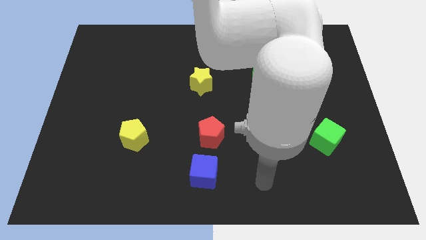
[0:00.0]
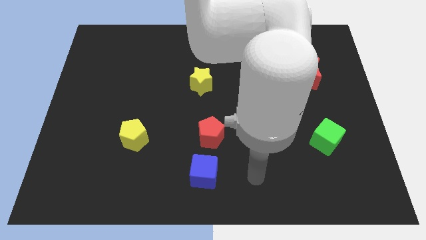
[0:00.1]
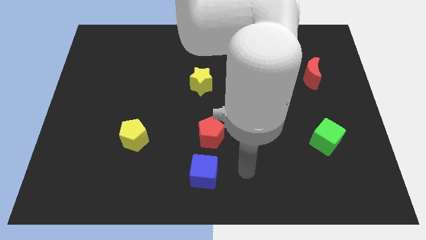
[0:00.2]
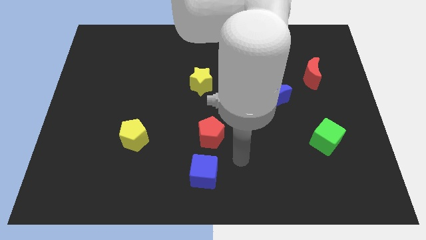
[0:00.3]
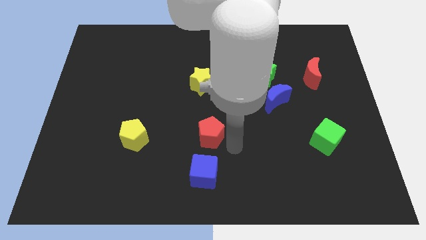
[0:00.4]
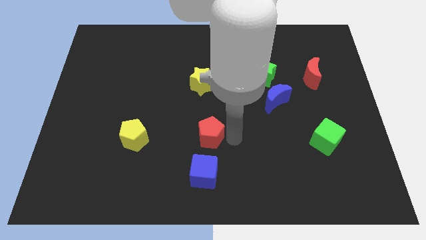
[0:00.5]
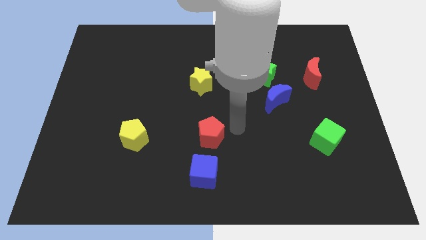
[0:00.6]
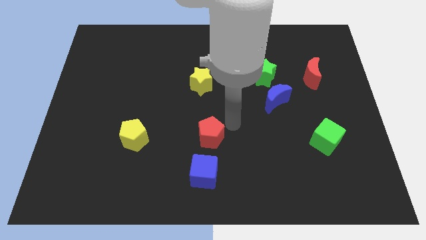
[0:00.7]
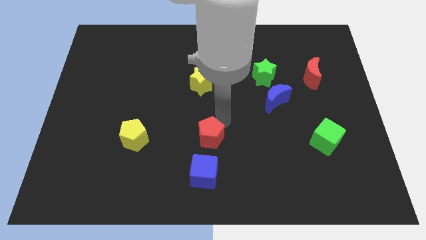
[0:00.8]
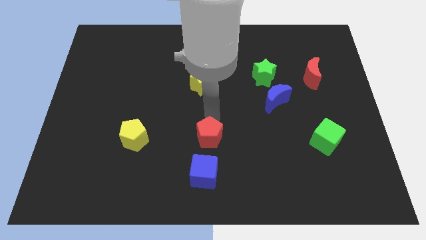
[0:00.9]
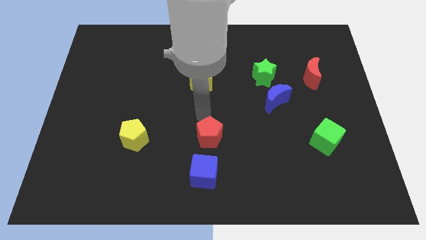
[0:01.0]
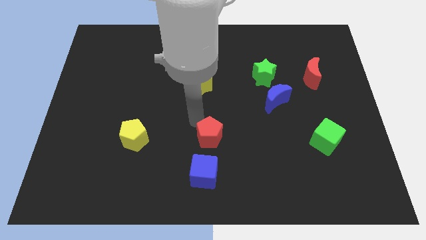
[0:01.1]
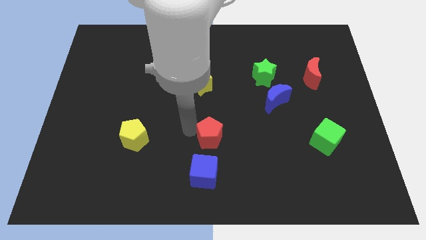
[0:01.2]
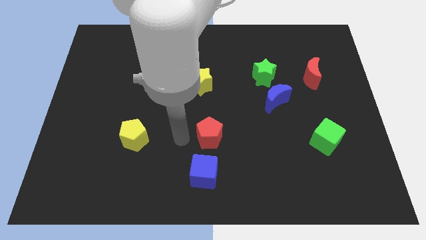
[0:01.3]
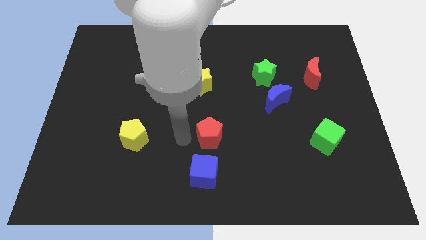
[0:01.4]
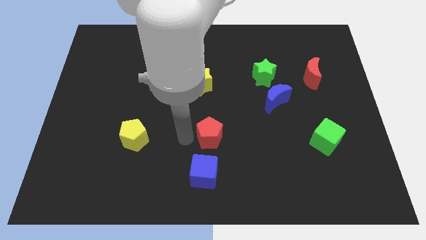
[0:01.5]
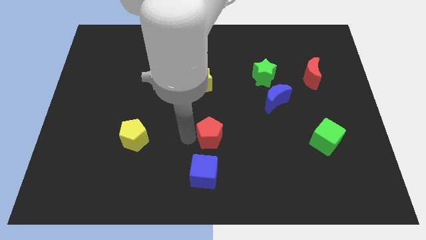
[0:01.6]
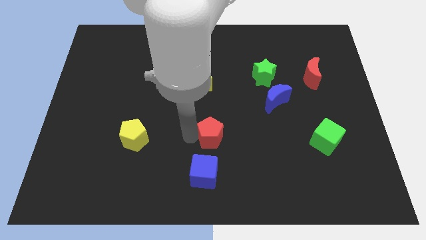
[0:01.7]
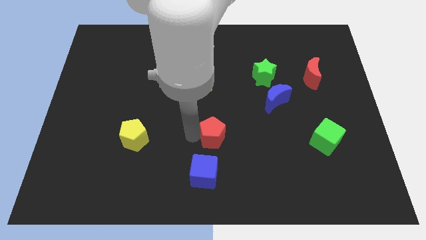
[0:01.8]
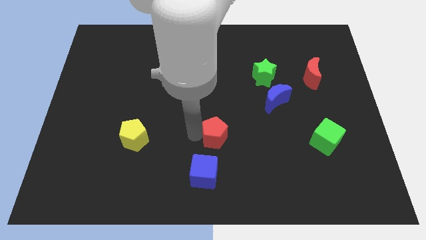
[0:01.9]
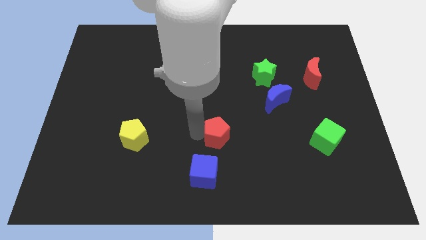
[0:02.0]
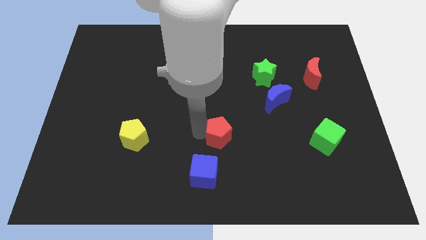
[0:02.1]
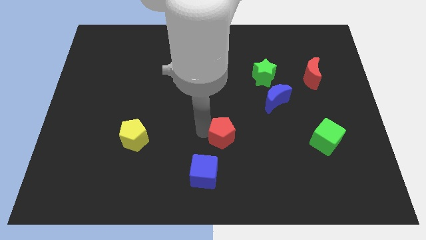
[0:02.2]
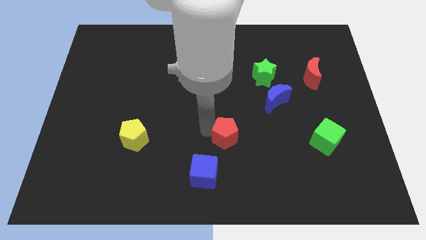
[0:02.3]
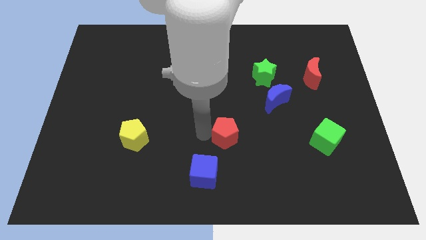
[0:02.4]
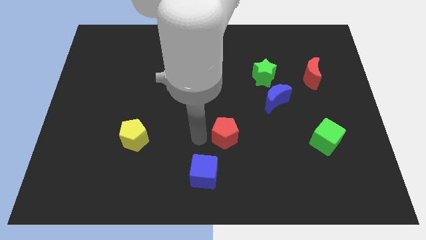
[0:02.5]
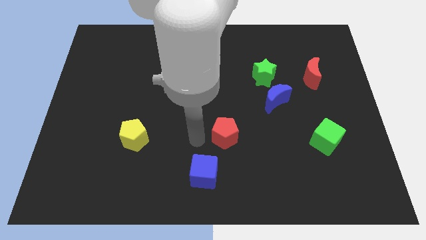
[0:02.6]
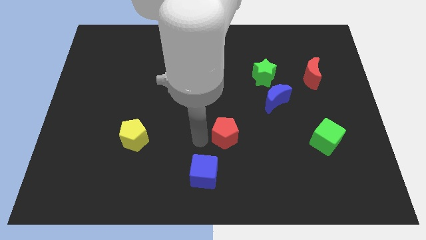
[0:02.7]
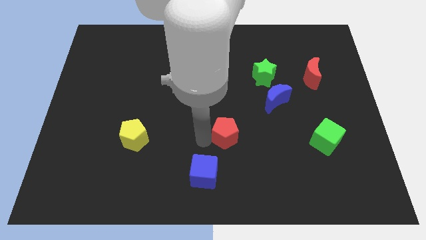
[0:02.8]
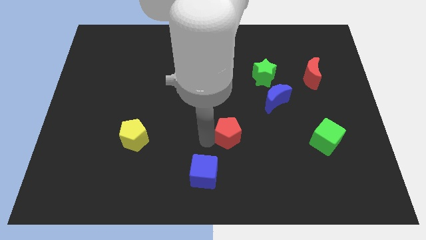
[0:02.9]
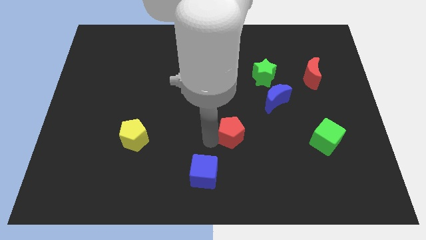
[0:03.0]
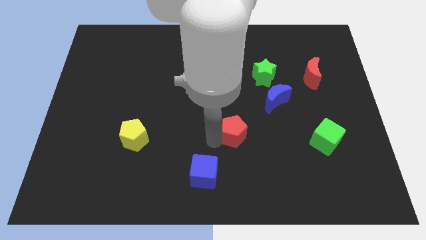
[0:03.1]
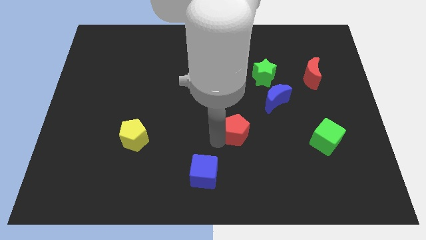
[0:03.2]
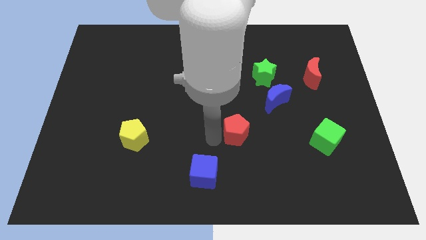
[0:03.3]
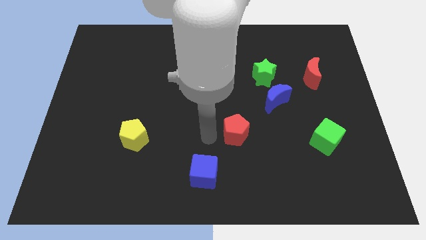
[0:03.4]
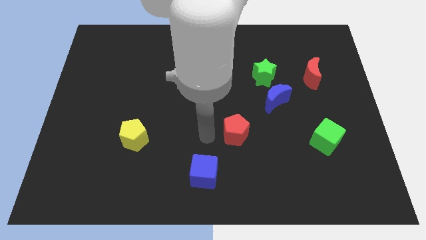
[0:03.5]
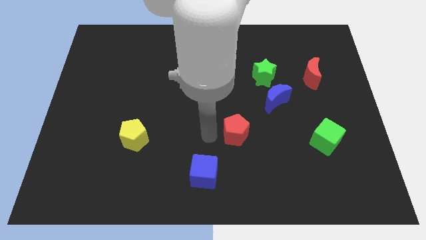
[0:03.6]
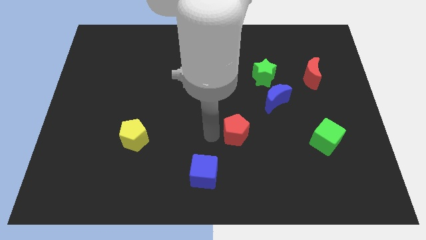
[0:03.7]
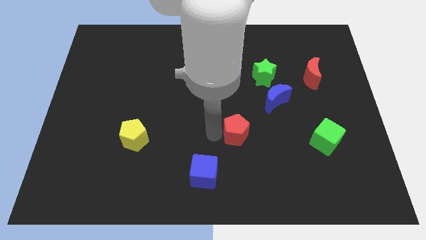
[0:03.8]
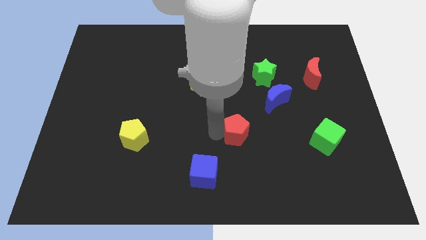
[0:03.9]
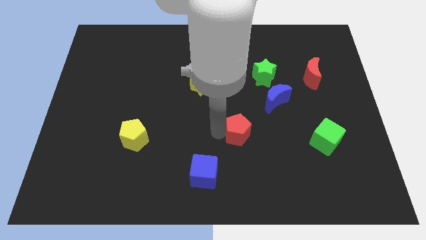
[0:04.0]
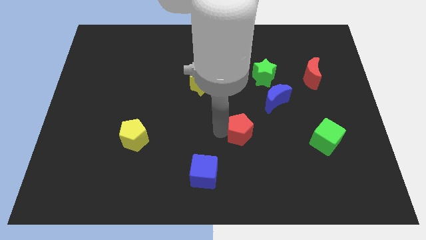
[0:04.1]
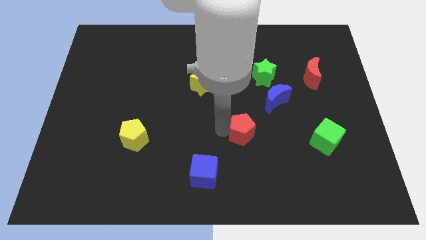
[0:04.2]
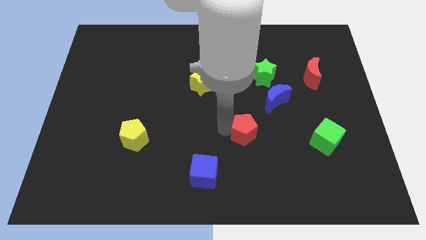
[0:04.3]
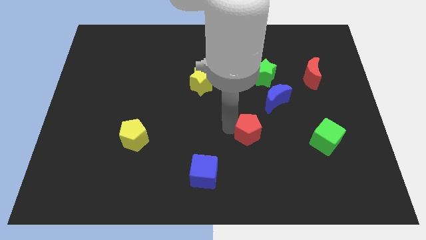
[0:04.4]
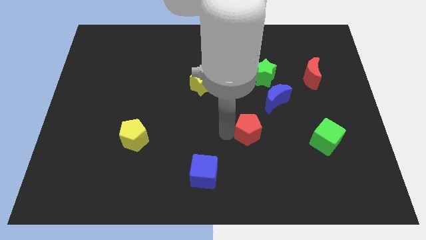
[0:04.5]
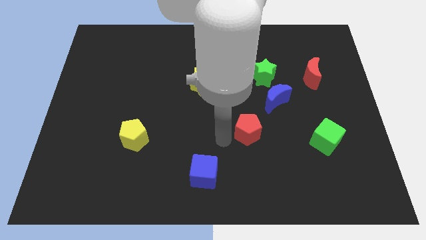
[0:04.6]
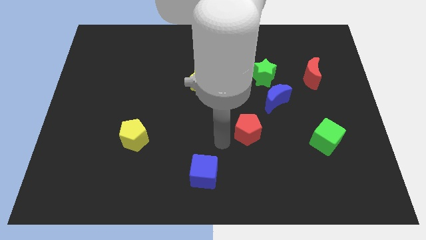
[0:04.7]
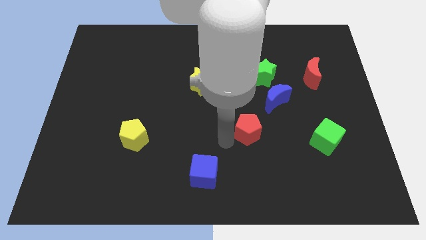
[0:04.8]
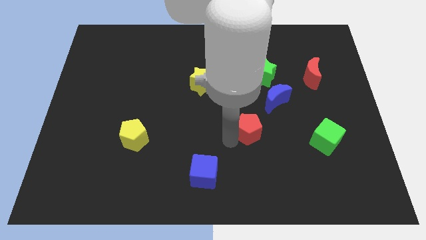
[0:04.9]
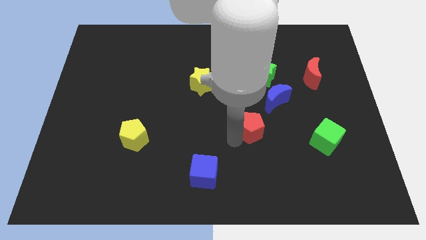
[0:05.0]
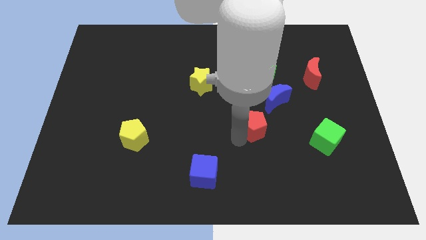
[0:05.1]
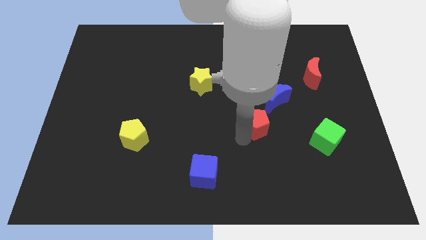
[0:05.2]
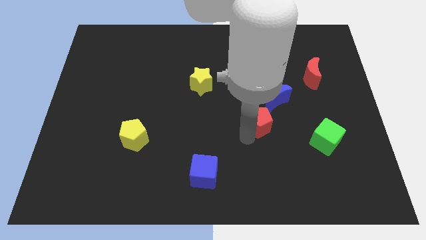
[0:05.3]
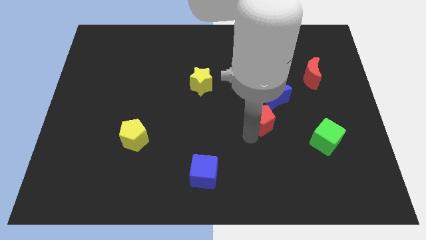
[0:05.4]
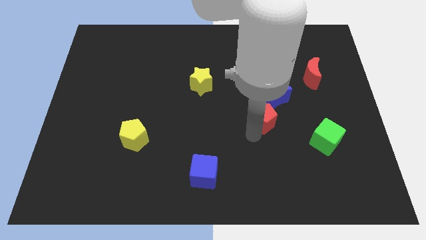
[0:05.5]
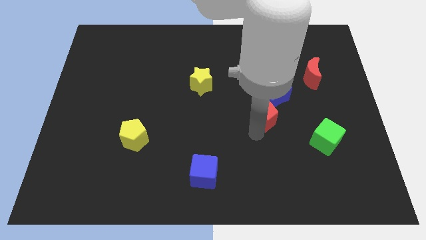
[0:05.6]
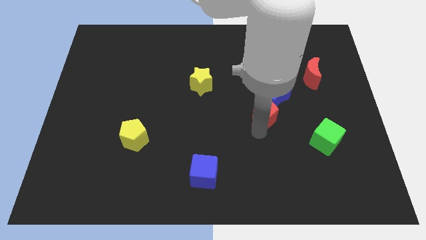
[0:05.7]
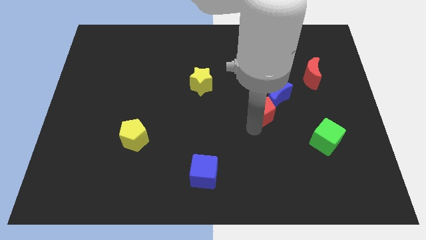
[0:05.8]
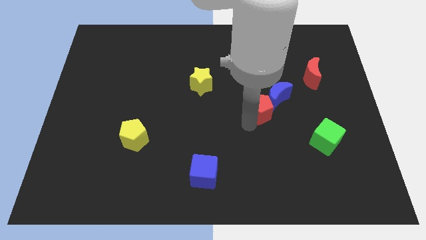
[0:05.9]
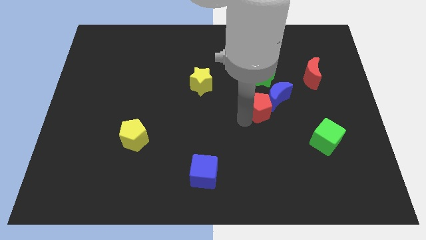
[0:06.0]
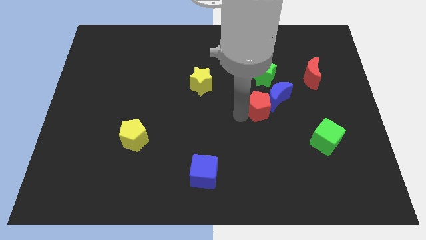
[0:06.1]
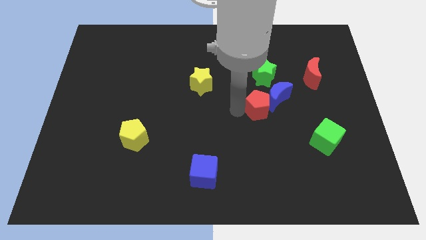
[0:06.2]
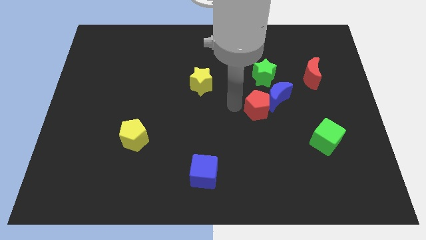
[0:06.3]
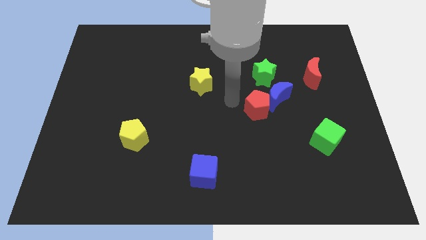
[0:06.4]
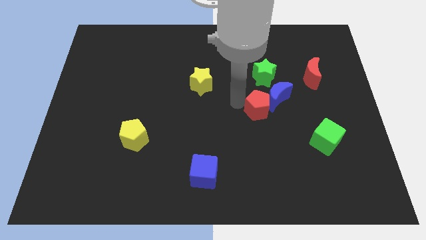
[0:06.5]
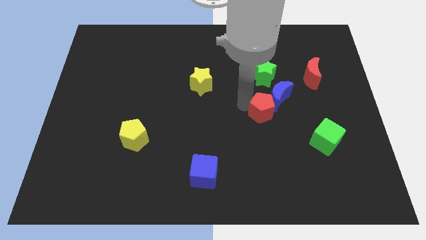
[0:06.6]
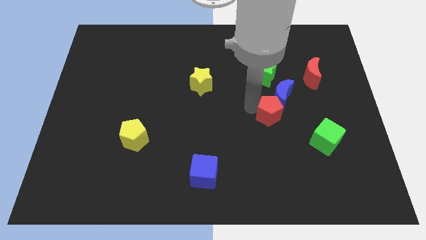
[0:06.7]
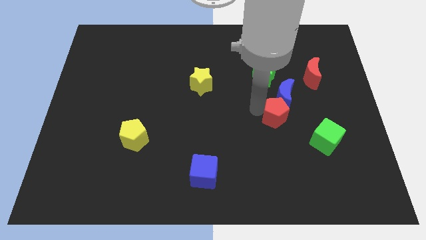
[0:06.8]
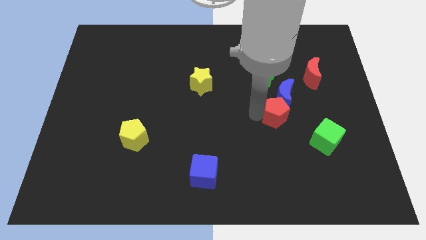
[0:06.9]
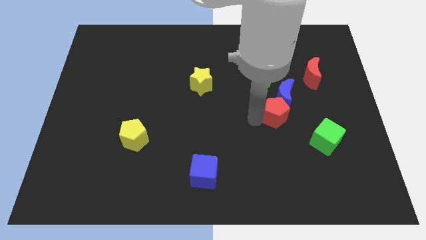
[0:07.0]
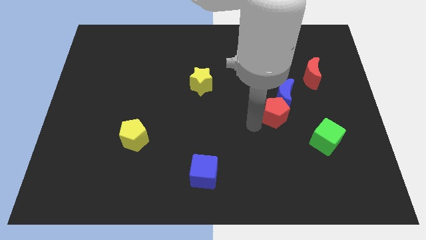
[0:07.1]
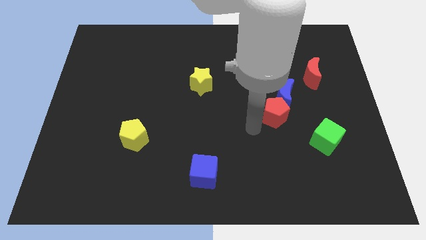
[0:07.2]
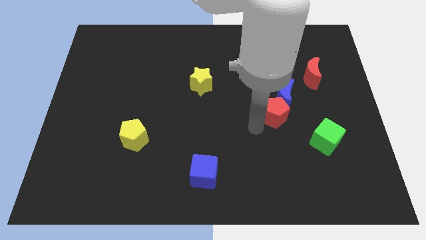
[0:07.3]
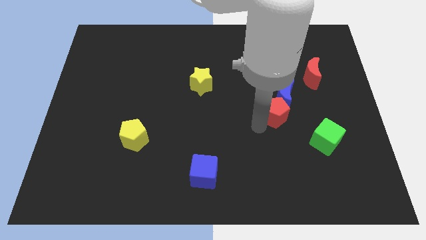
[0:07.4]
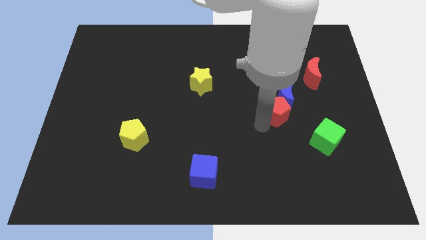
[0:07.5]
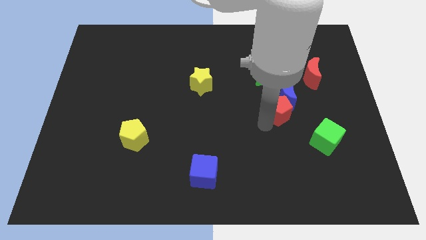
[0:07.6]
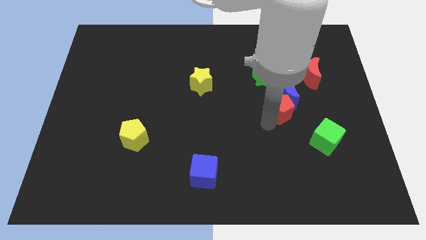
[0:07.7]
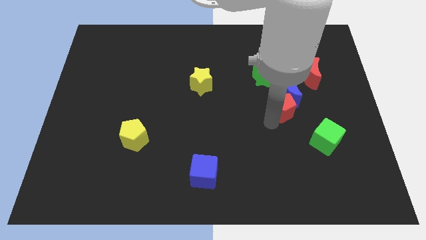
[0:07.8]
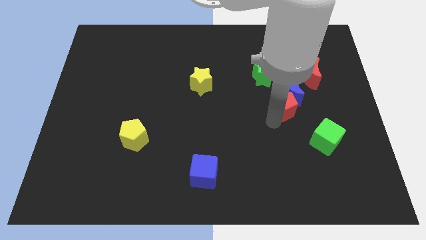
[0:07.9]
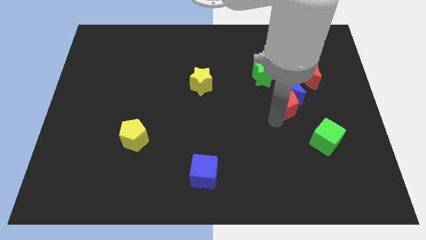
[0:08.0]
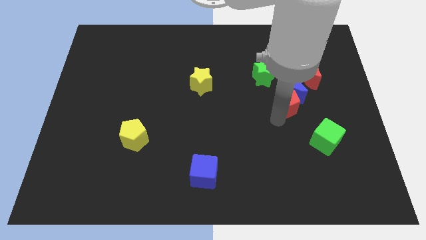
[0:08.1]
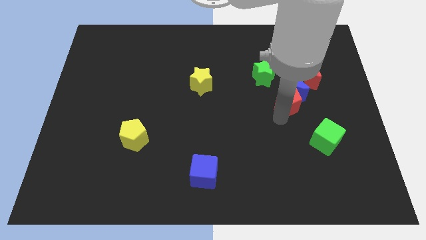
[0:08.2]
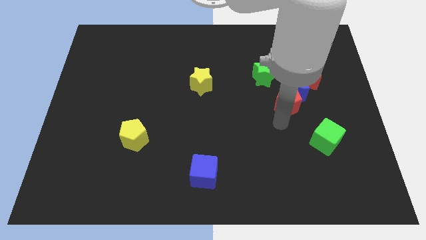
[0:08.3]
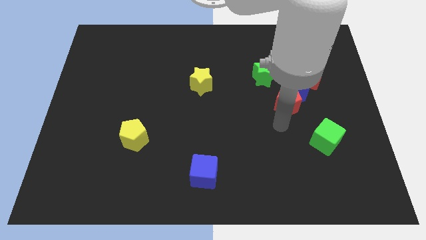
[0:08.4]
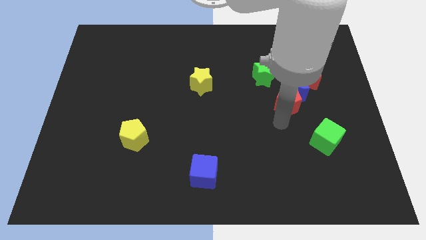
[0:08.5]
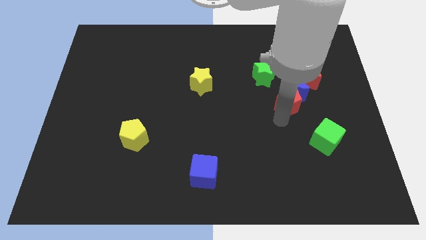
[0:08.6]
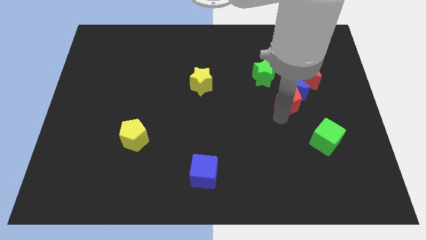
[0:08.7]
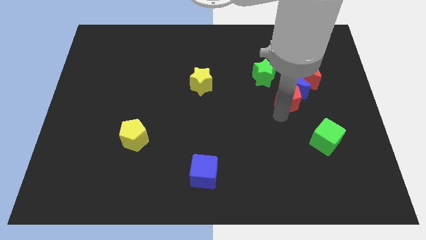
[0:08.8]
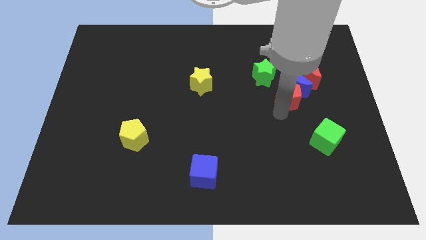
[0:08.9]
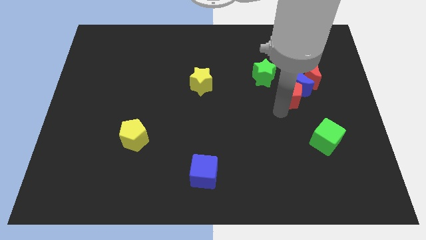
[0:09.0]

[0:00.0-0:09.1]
move the red pentagon up and to the right
